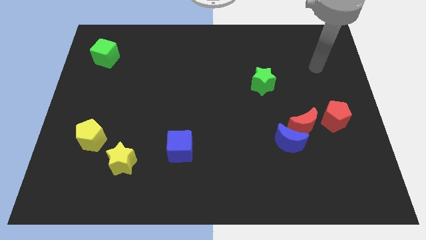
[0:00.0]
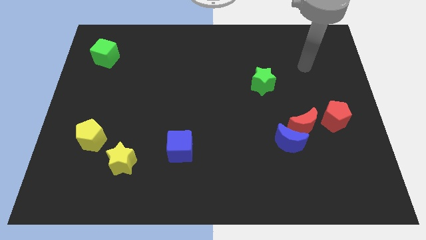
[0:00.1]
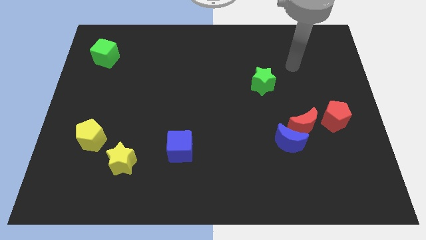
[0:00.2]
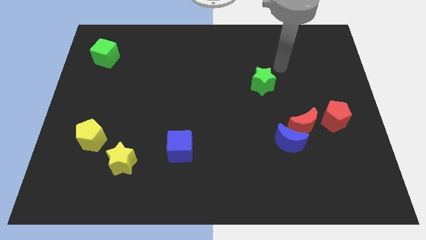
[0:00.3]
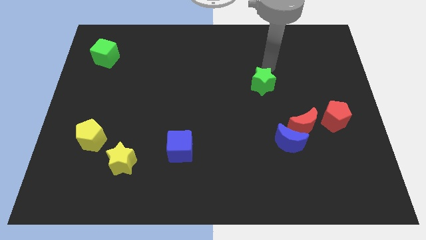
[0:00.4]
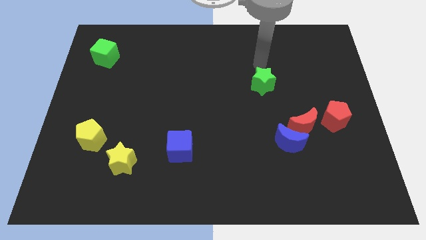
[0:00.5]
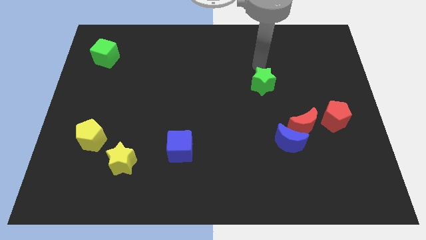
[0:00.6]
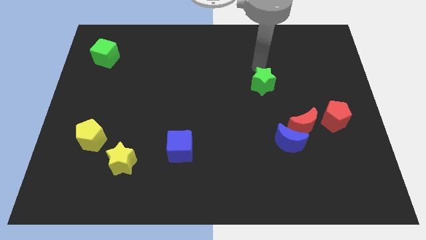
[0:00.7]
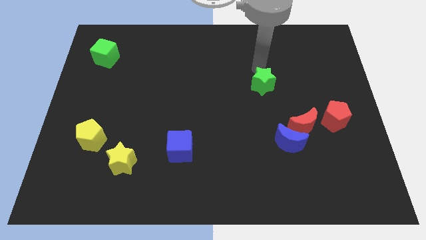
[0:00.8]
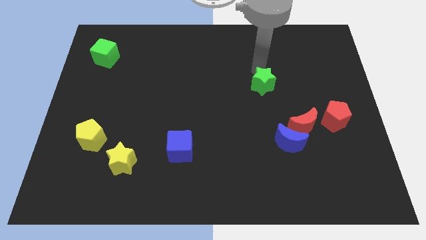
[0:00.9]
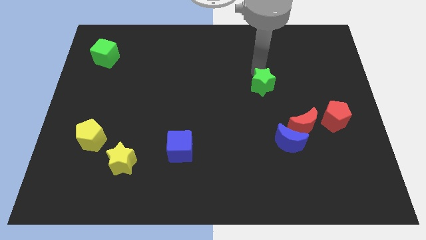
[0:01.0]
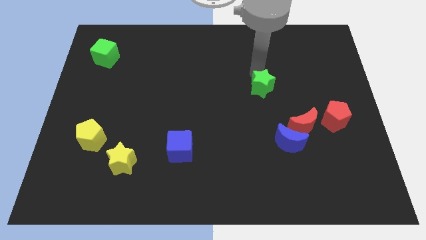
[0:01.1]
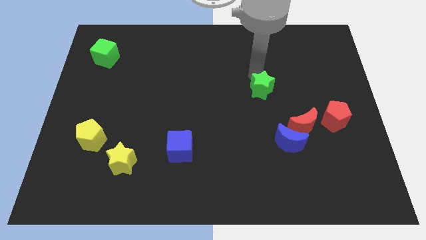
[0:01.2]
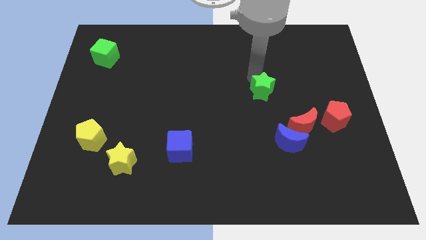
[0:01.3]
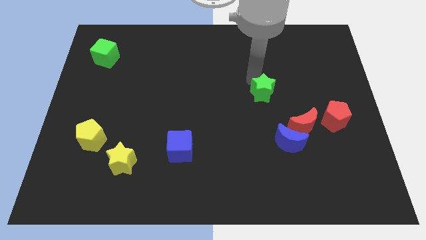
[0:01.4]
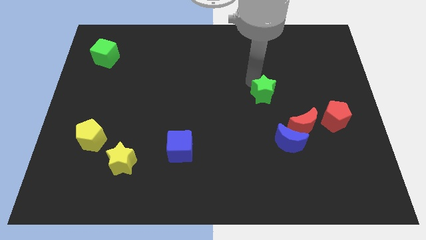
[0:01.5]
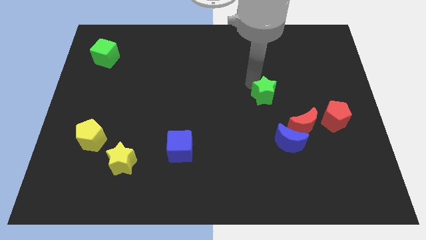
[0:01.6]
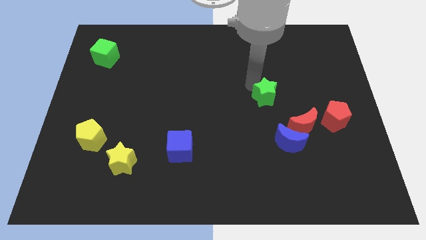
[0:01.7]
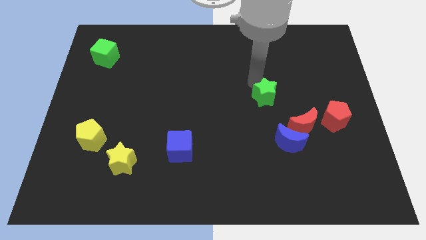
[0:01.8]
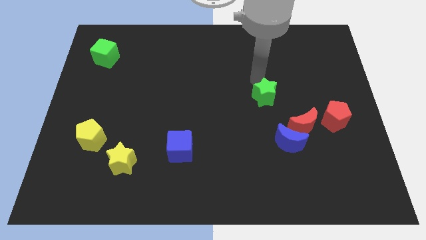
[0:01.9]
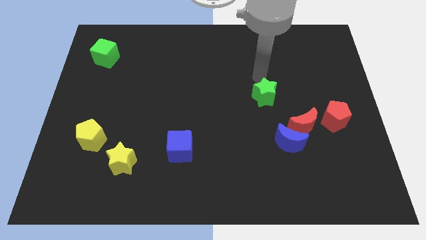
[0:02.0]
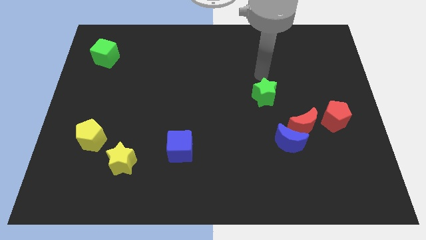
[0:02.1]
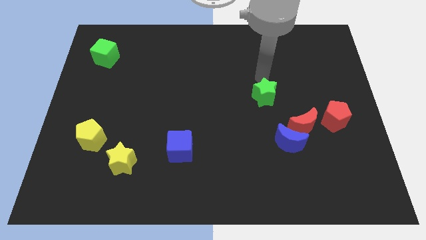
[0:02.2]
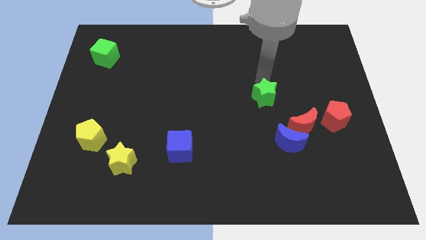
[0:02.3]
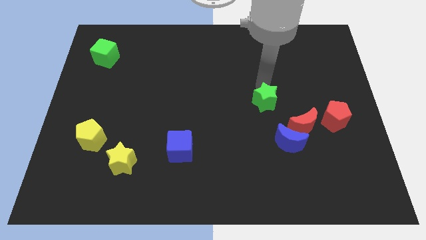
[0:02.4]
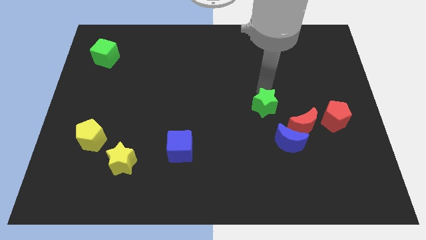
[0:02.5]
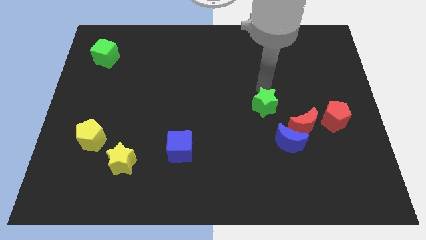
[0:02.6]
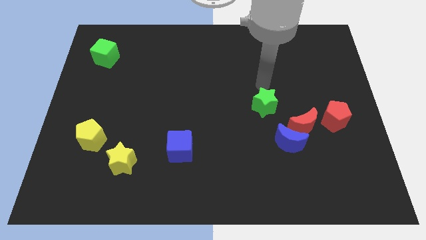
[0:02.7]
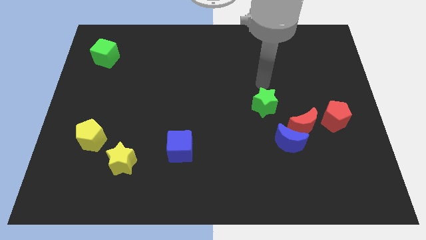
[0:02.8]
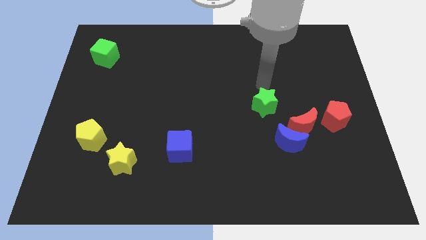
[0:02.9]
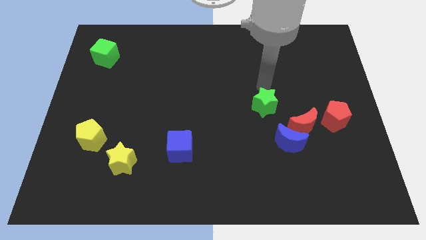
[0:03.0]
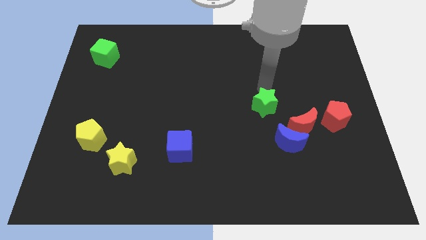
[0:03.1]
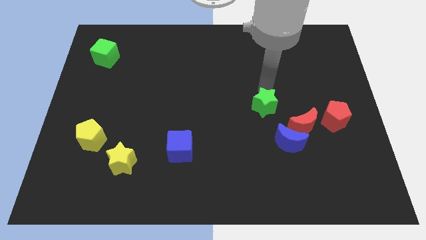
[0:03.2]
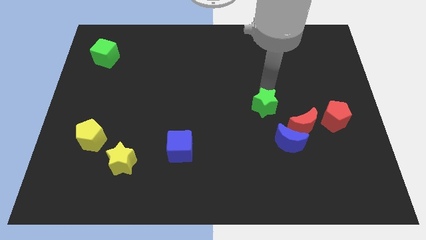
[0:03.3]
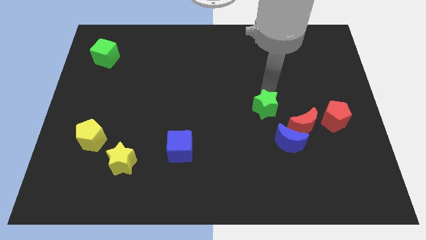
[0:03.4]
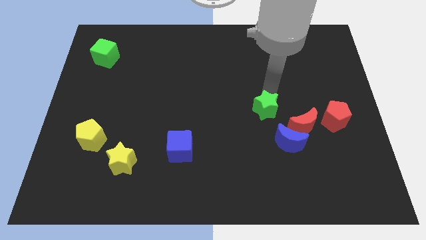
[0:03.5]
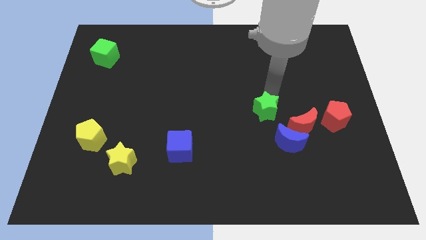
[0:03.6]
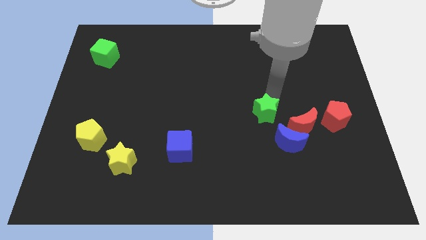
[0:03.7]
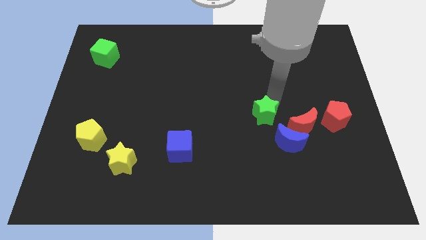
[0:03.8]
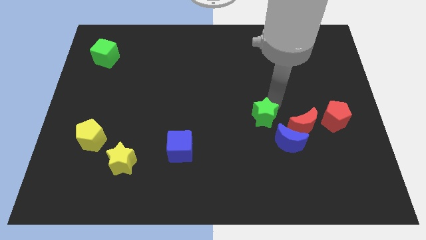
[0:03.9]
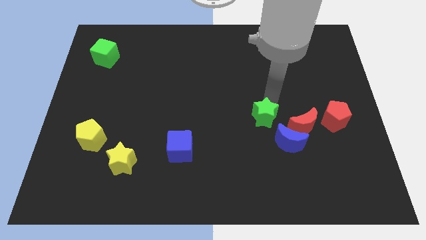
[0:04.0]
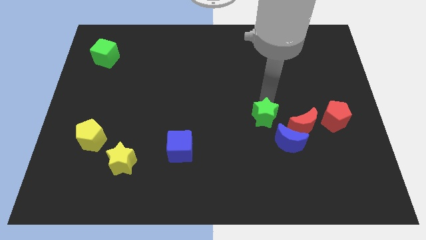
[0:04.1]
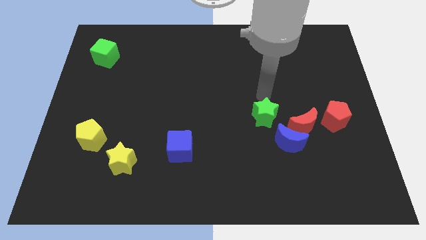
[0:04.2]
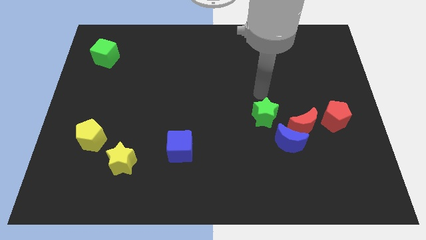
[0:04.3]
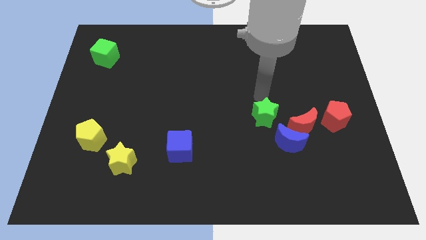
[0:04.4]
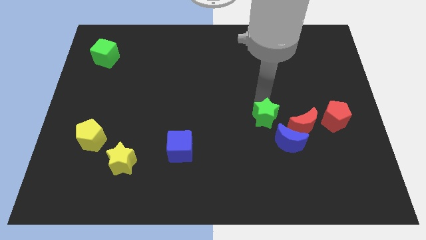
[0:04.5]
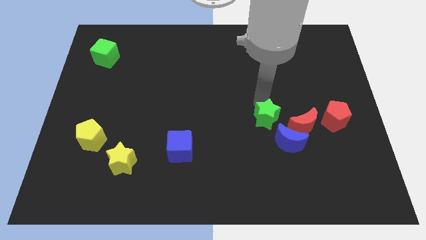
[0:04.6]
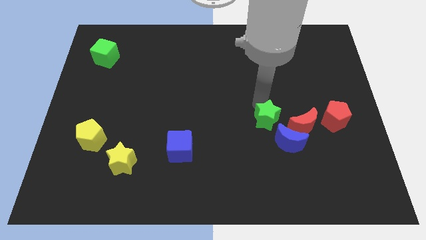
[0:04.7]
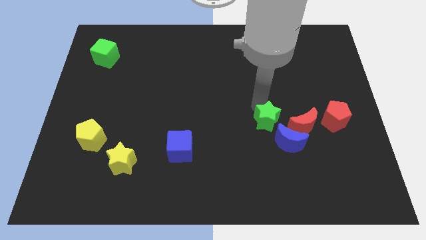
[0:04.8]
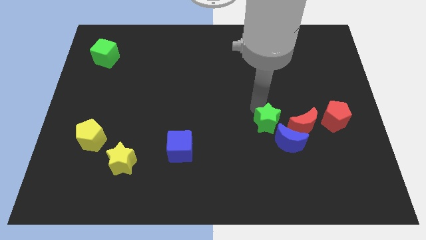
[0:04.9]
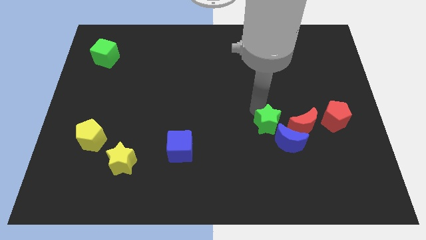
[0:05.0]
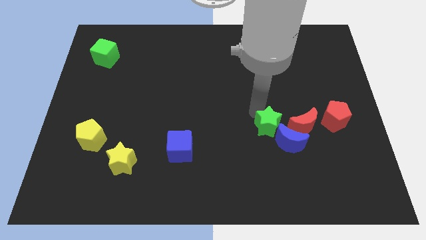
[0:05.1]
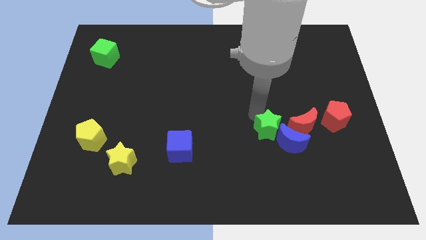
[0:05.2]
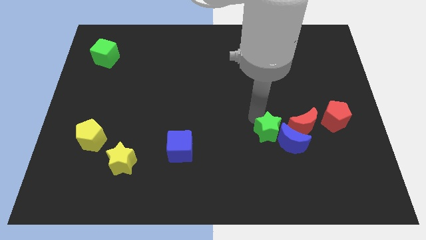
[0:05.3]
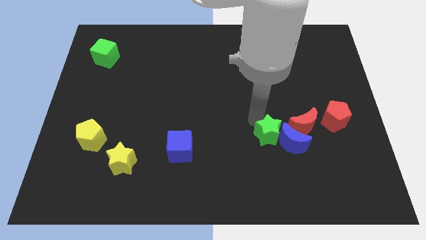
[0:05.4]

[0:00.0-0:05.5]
push the green star diagonally down and to the left of the red moon

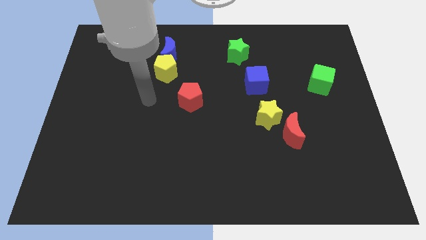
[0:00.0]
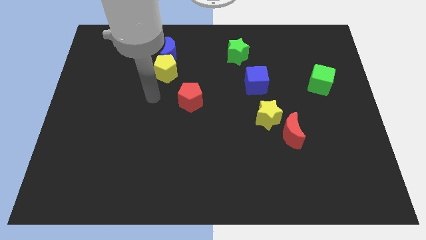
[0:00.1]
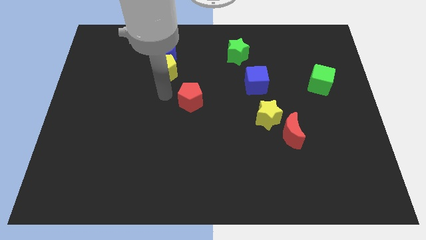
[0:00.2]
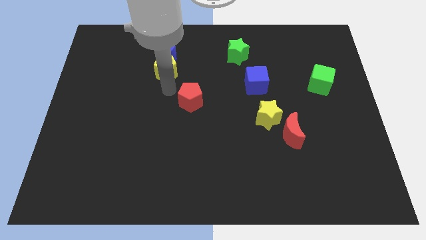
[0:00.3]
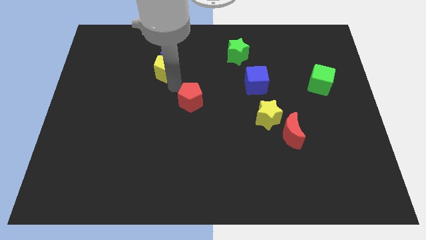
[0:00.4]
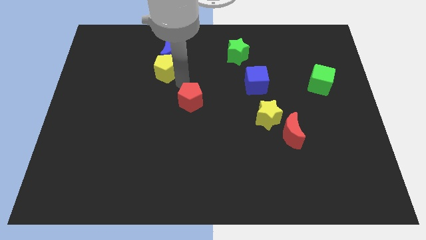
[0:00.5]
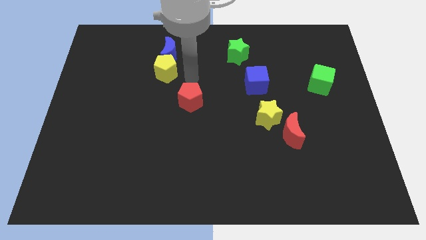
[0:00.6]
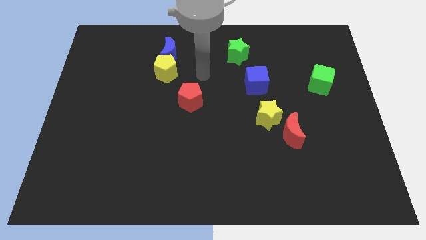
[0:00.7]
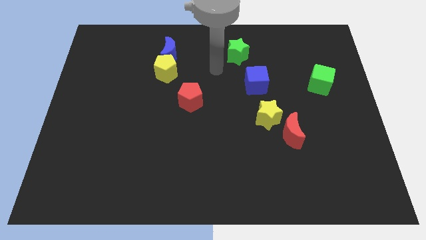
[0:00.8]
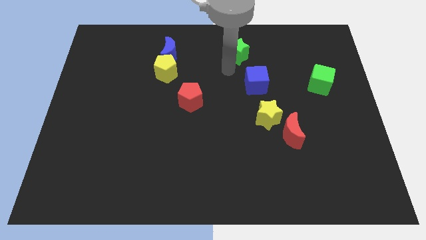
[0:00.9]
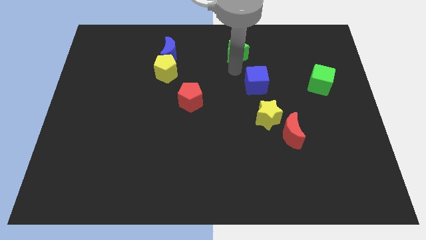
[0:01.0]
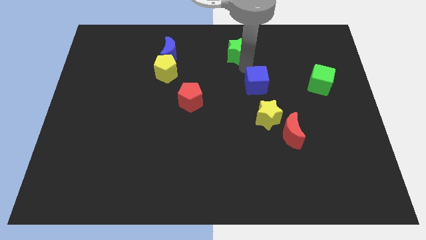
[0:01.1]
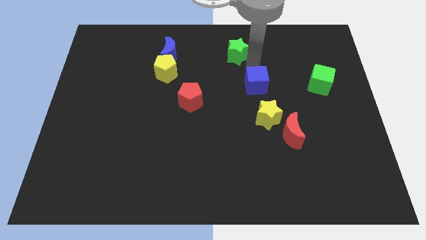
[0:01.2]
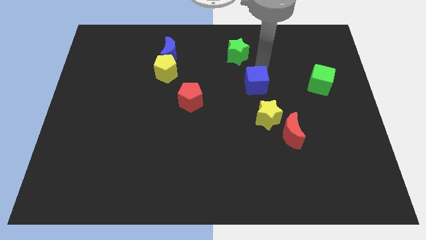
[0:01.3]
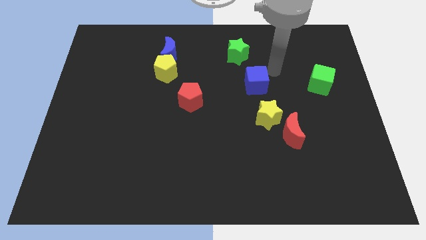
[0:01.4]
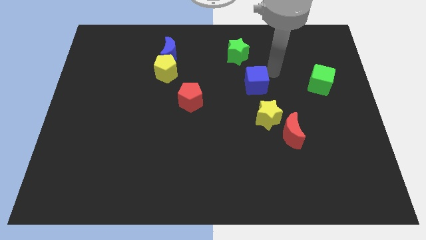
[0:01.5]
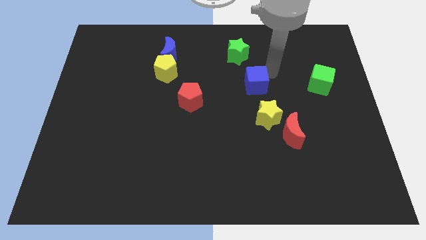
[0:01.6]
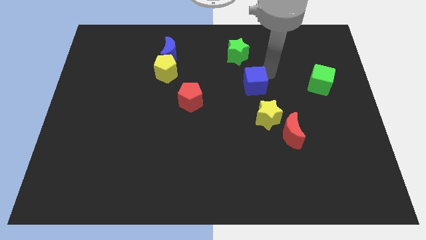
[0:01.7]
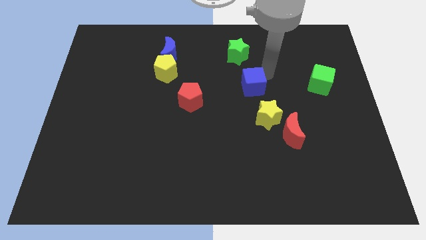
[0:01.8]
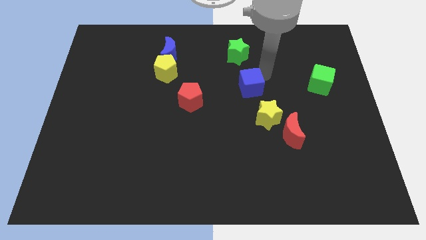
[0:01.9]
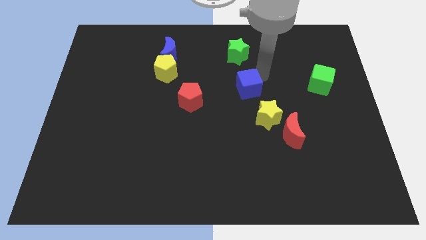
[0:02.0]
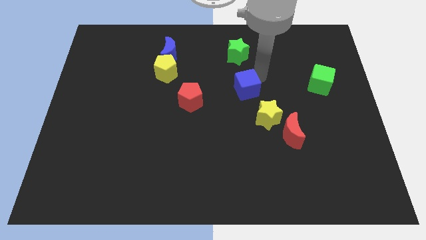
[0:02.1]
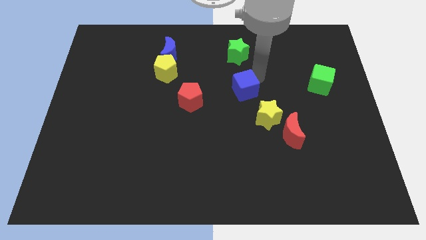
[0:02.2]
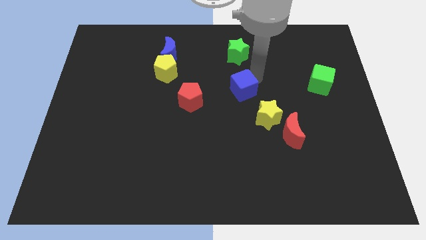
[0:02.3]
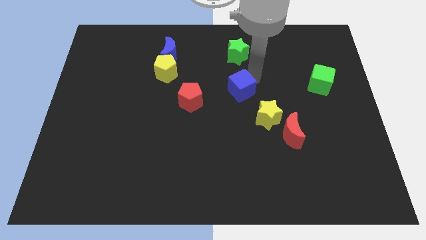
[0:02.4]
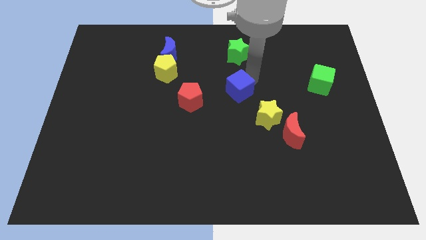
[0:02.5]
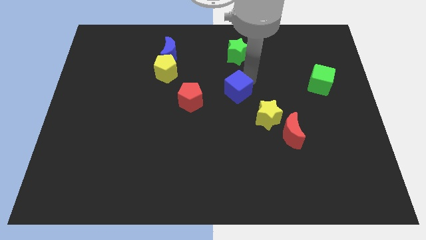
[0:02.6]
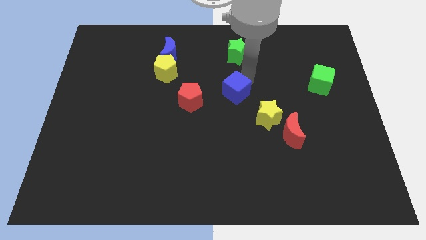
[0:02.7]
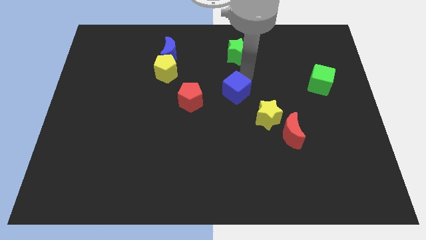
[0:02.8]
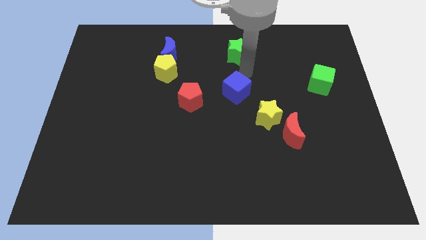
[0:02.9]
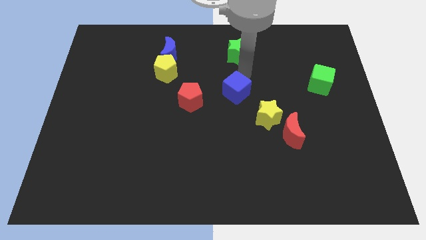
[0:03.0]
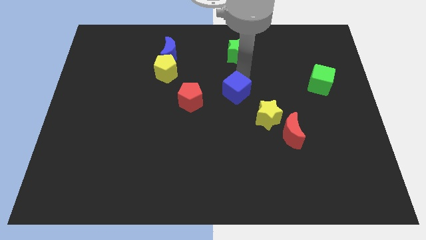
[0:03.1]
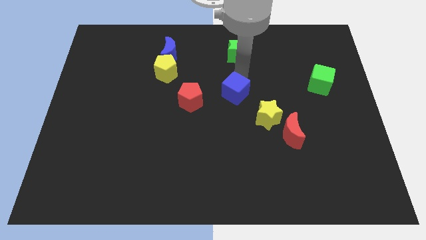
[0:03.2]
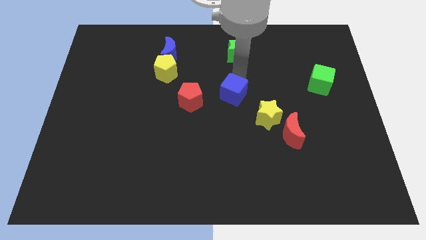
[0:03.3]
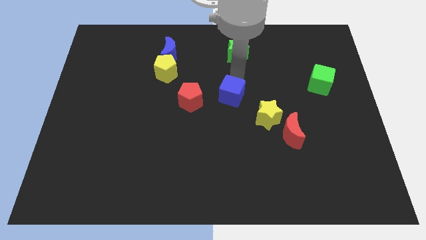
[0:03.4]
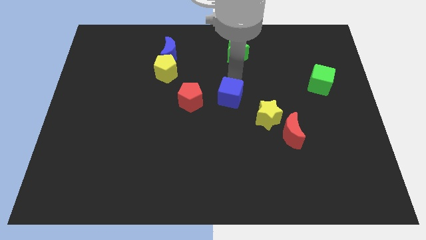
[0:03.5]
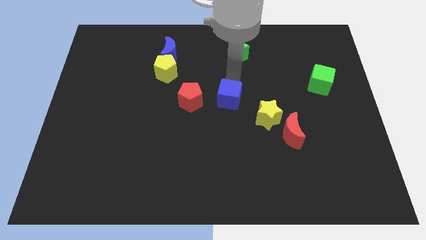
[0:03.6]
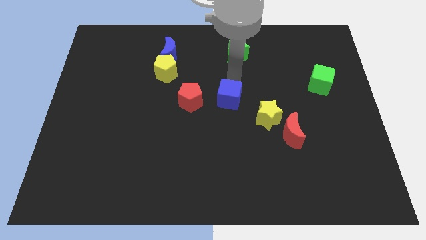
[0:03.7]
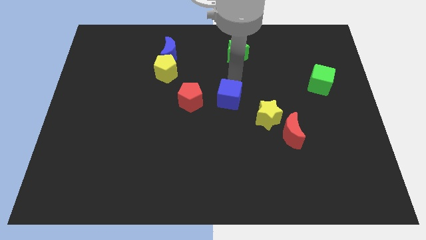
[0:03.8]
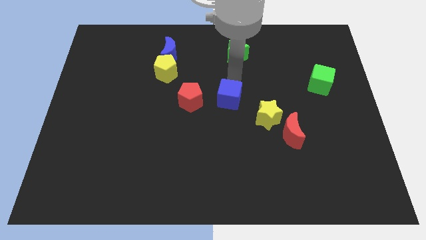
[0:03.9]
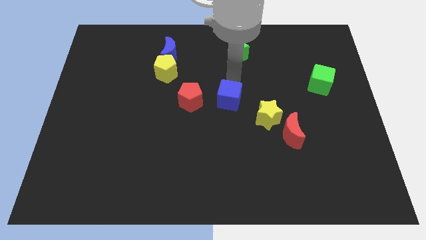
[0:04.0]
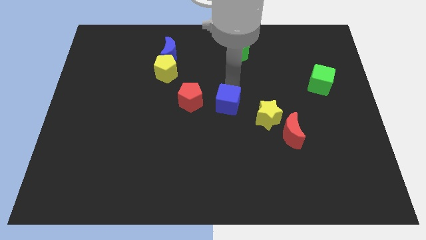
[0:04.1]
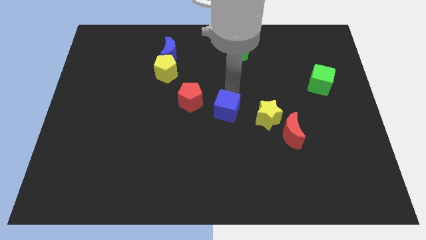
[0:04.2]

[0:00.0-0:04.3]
push the blue cube to the bottom right side of the red pentagon
